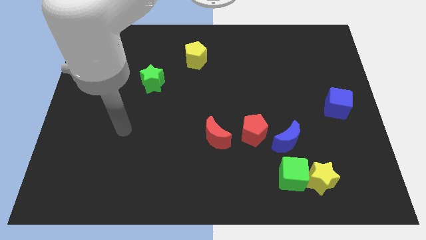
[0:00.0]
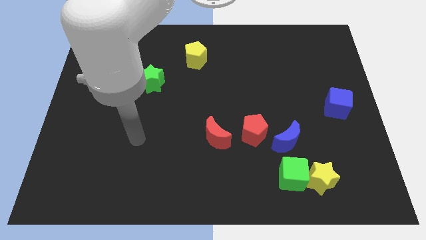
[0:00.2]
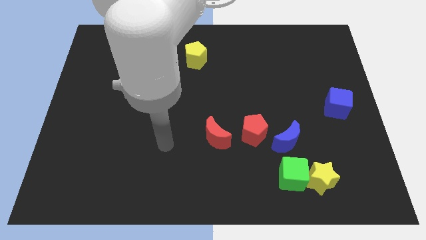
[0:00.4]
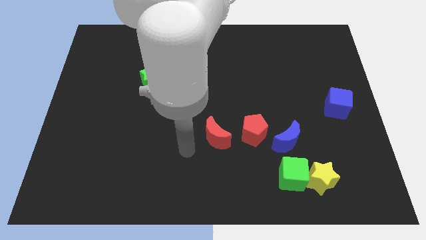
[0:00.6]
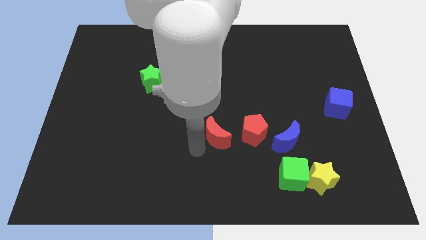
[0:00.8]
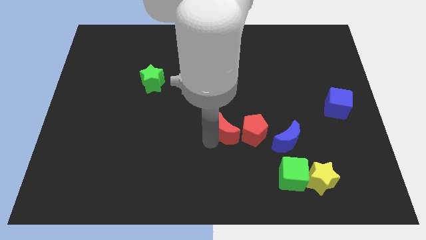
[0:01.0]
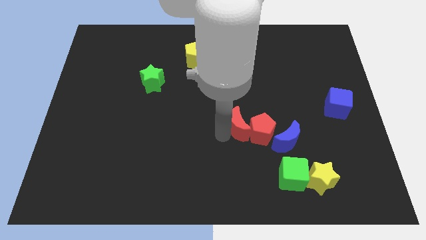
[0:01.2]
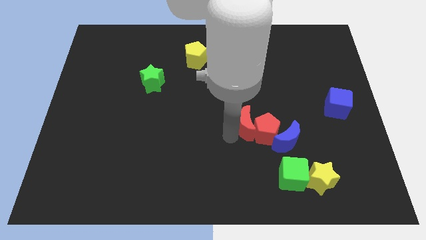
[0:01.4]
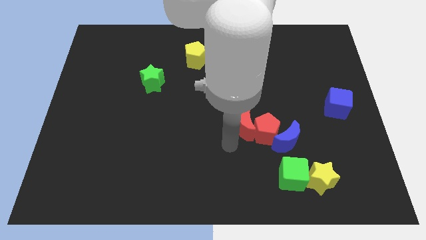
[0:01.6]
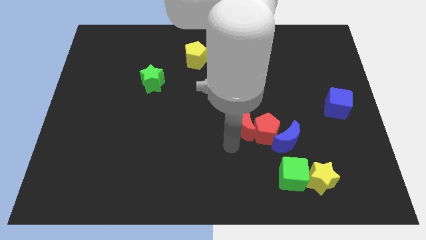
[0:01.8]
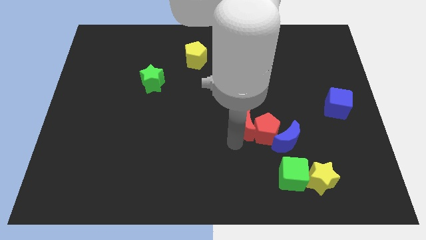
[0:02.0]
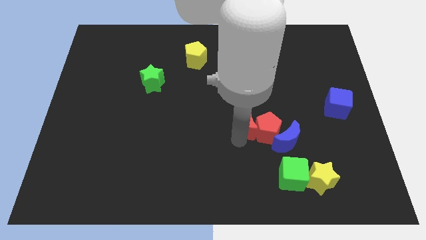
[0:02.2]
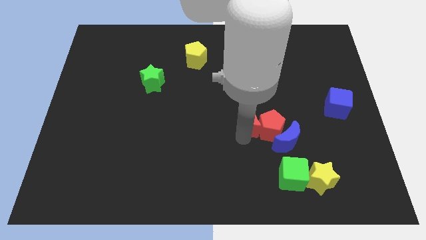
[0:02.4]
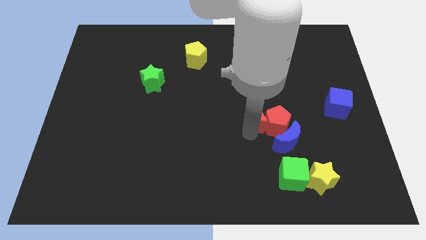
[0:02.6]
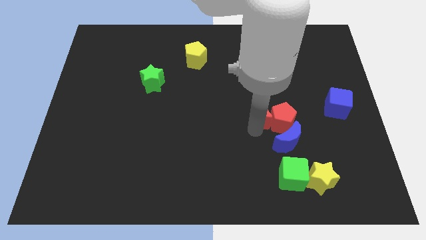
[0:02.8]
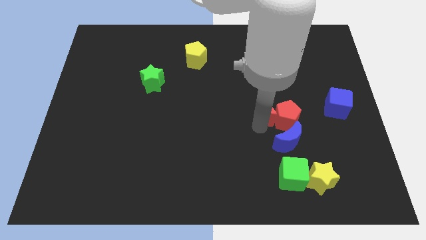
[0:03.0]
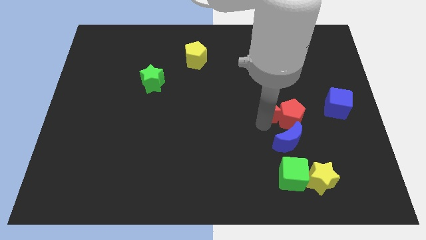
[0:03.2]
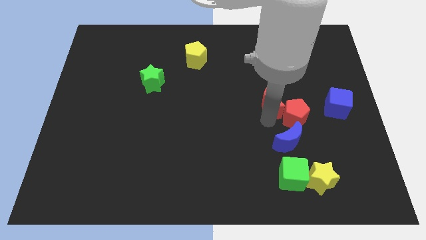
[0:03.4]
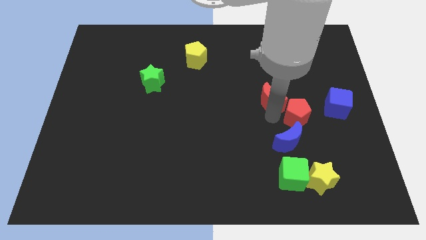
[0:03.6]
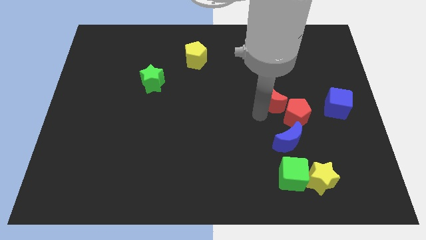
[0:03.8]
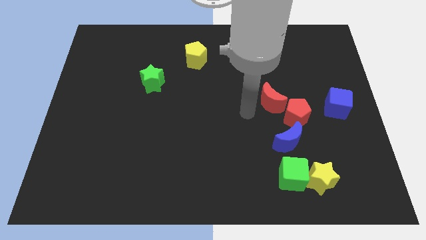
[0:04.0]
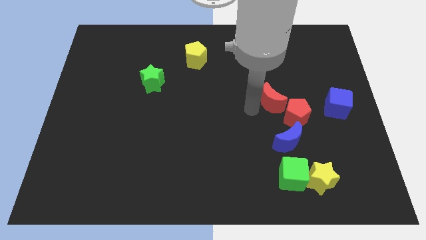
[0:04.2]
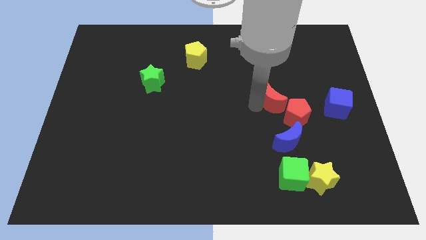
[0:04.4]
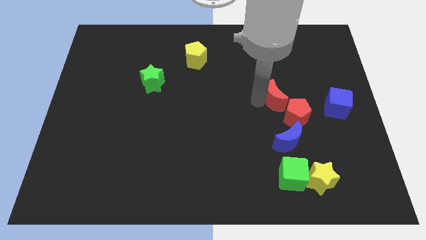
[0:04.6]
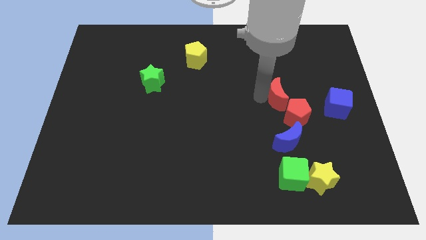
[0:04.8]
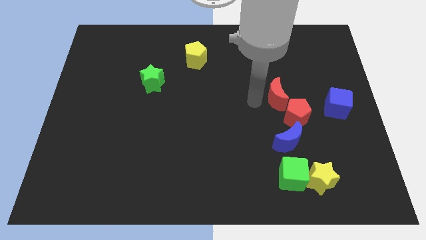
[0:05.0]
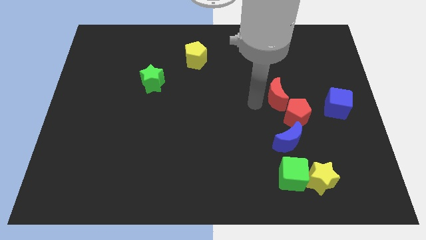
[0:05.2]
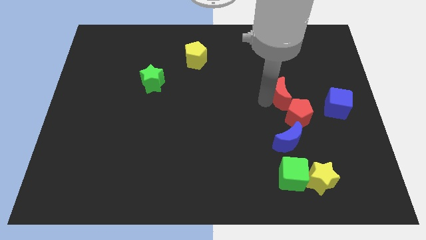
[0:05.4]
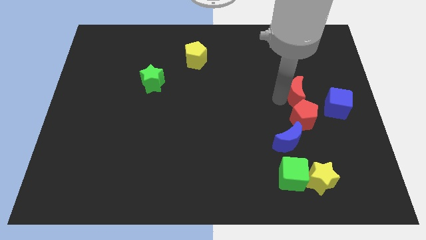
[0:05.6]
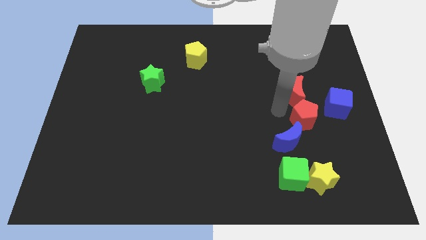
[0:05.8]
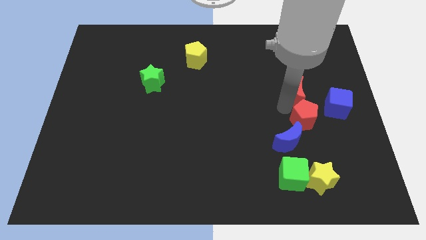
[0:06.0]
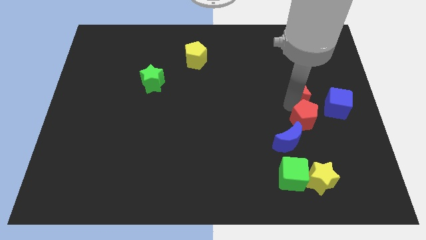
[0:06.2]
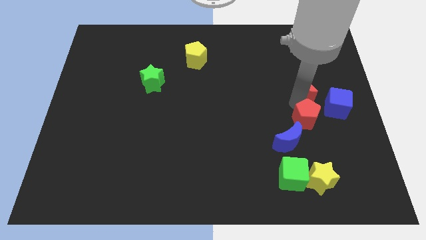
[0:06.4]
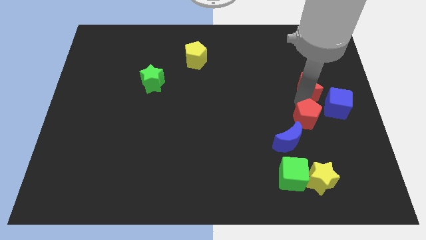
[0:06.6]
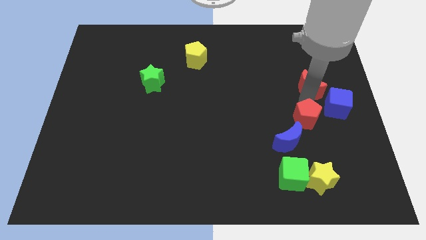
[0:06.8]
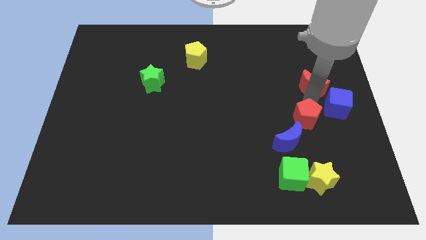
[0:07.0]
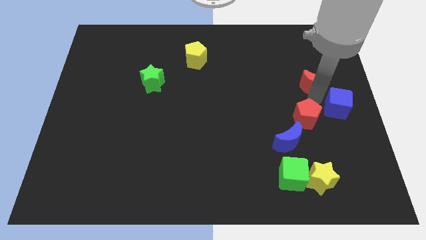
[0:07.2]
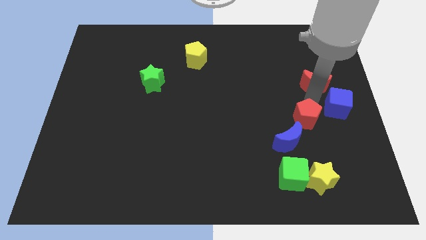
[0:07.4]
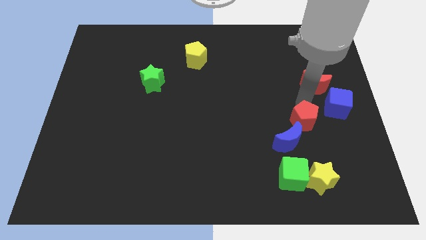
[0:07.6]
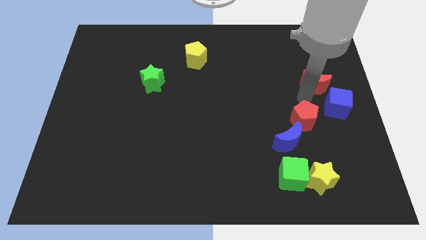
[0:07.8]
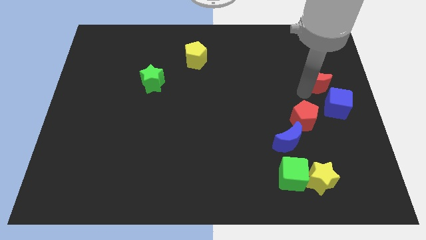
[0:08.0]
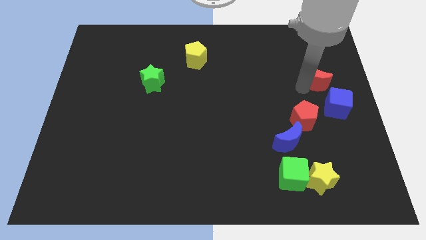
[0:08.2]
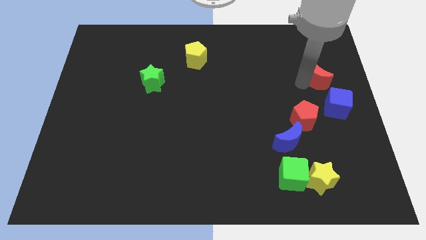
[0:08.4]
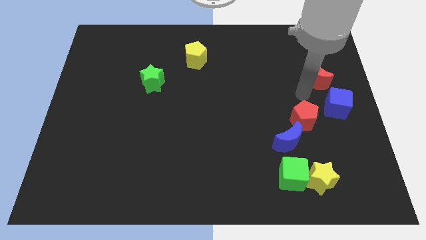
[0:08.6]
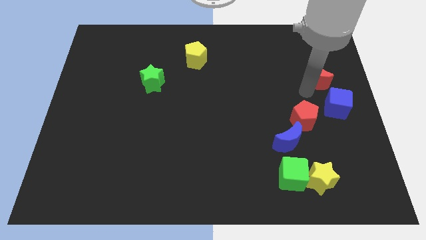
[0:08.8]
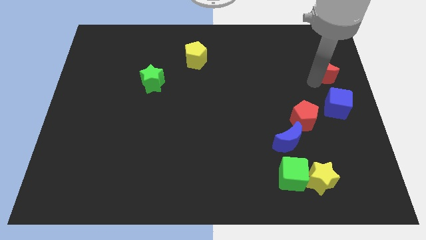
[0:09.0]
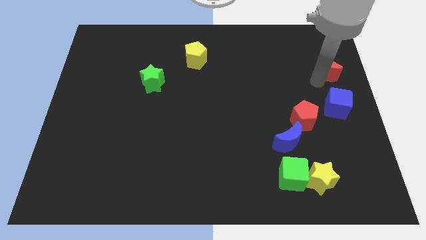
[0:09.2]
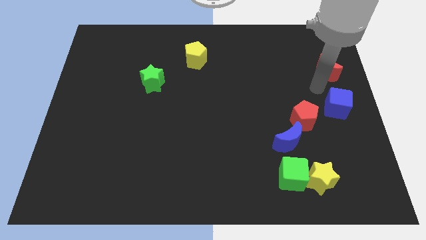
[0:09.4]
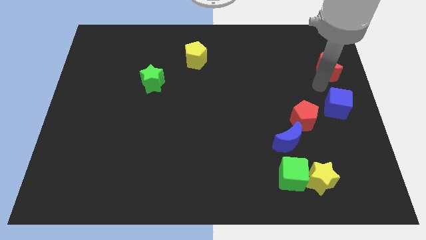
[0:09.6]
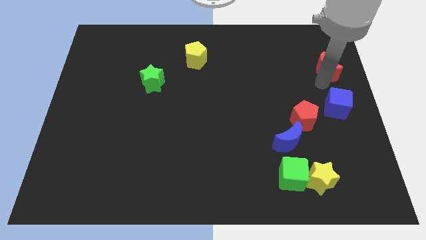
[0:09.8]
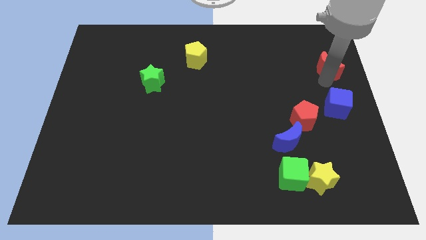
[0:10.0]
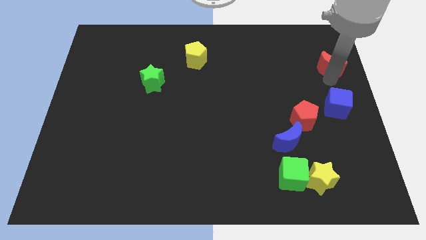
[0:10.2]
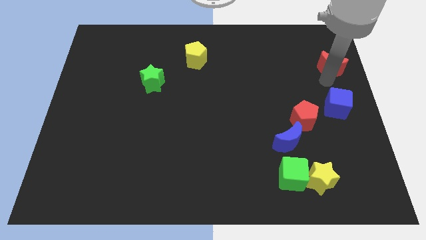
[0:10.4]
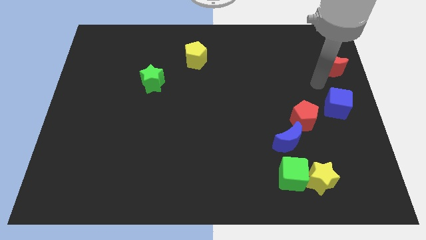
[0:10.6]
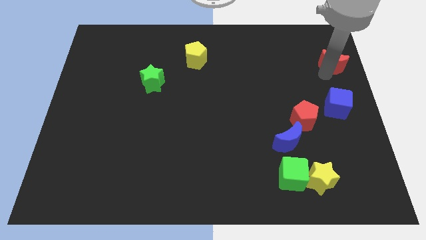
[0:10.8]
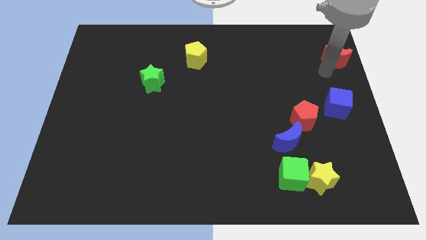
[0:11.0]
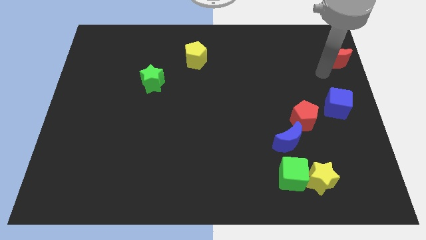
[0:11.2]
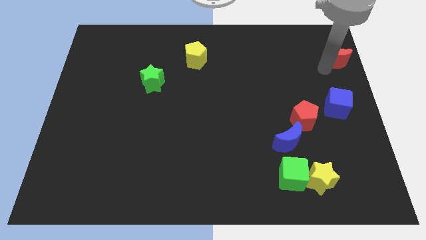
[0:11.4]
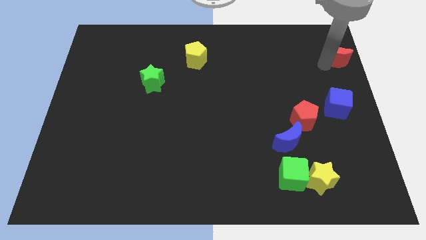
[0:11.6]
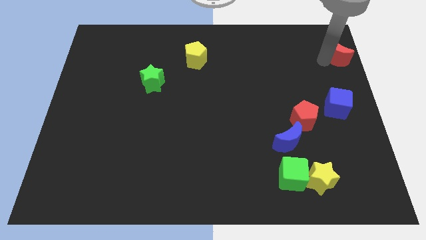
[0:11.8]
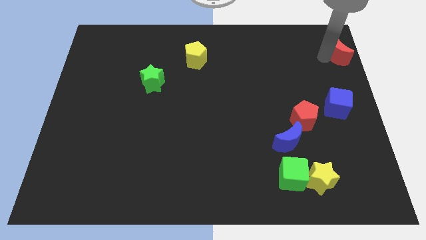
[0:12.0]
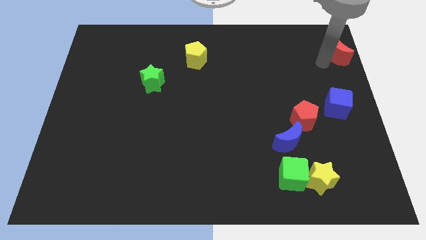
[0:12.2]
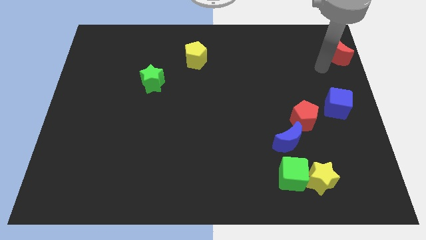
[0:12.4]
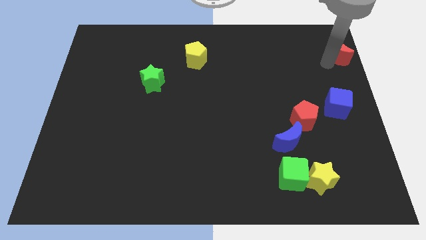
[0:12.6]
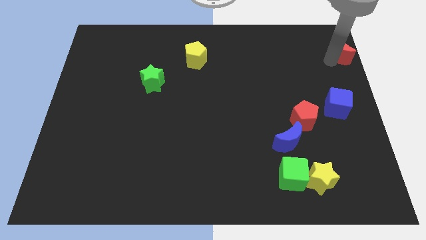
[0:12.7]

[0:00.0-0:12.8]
push the red moon to the top right corner

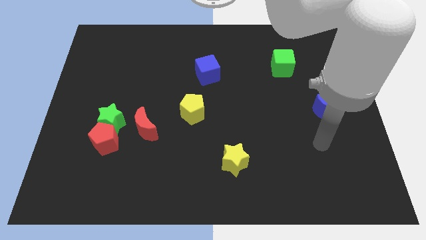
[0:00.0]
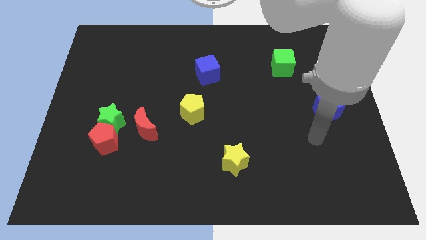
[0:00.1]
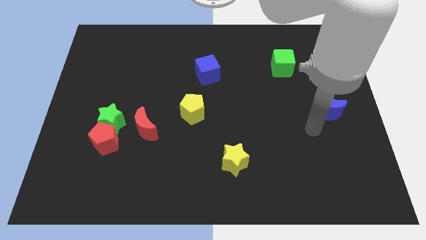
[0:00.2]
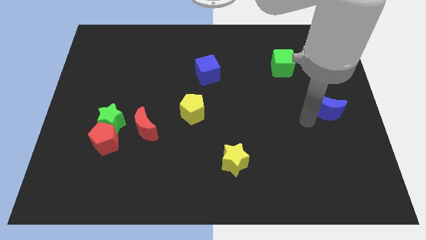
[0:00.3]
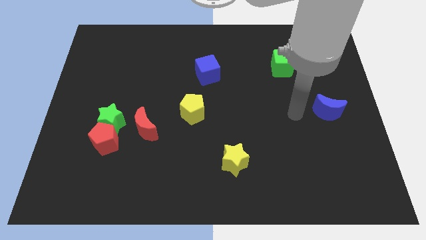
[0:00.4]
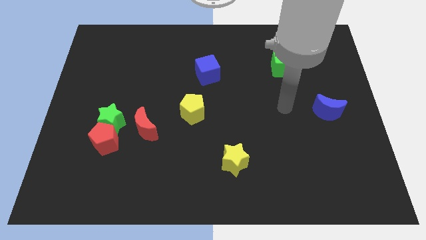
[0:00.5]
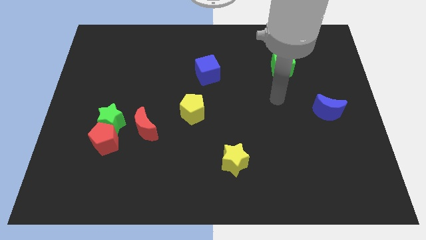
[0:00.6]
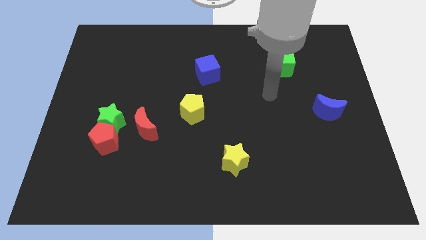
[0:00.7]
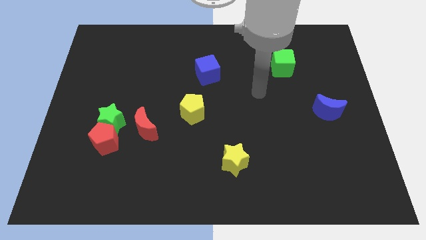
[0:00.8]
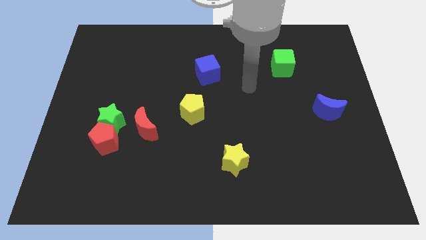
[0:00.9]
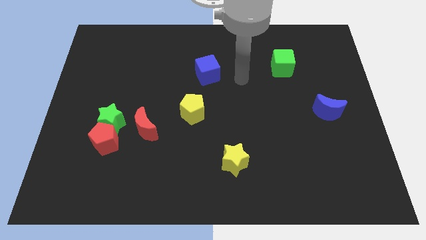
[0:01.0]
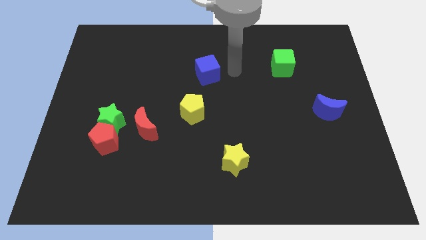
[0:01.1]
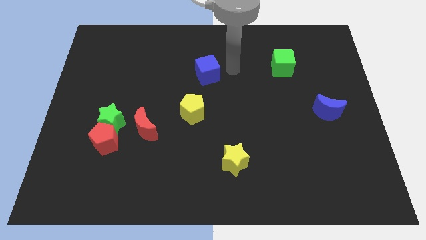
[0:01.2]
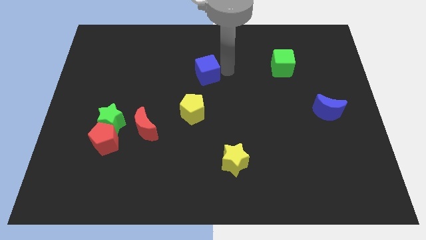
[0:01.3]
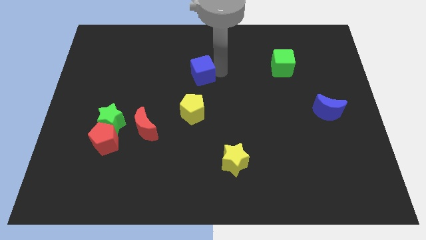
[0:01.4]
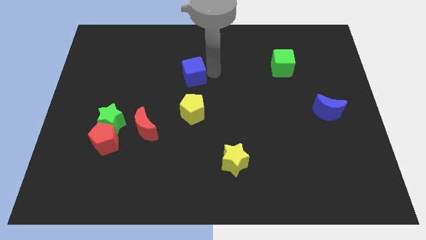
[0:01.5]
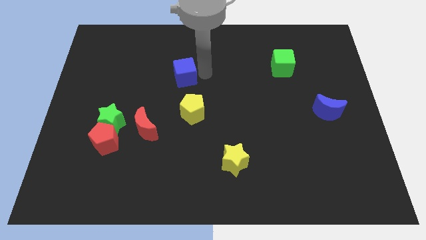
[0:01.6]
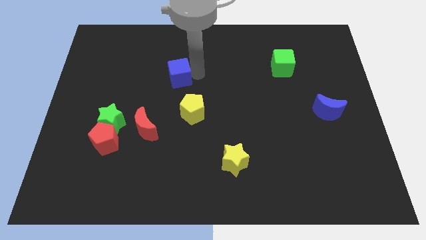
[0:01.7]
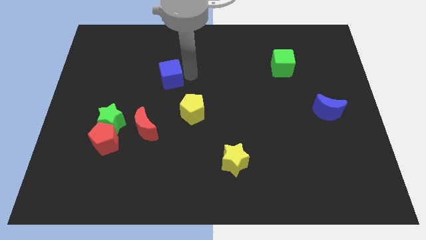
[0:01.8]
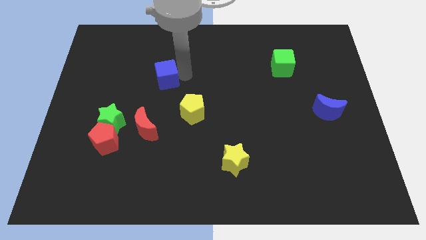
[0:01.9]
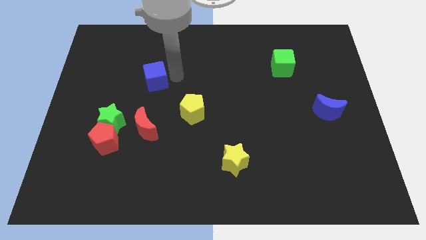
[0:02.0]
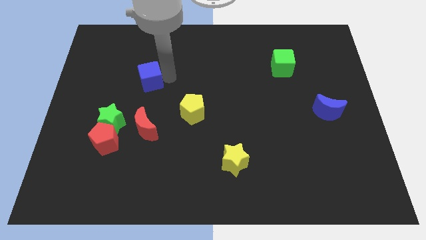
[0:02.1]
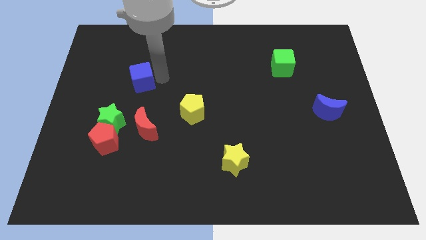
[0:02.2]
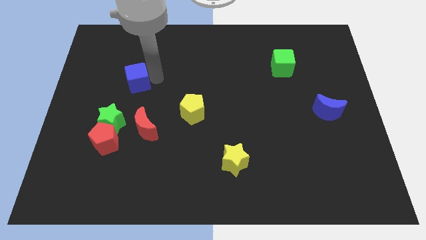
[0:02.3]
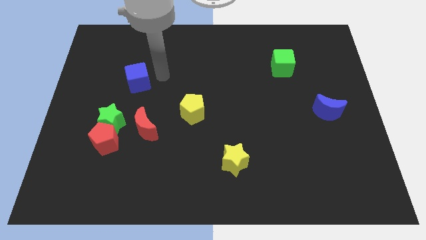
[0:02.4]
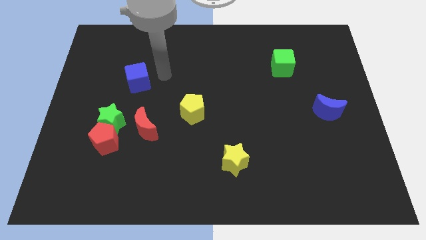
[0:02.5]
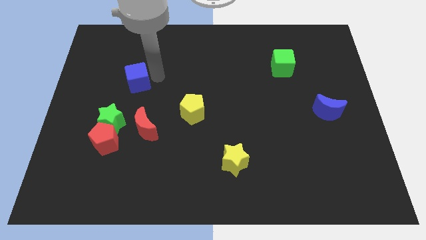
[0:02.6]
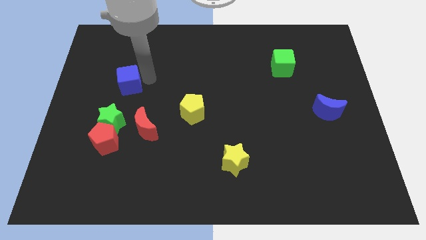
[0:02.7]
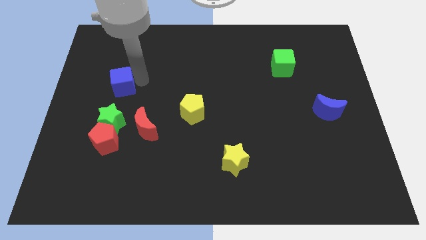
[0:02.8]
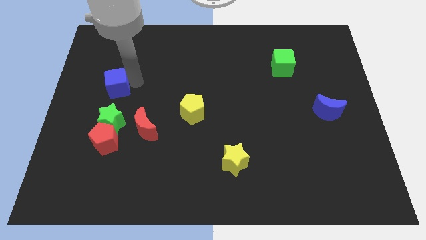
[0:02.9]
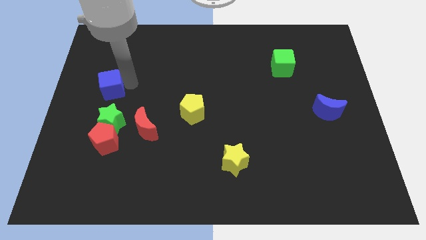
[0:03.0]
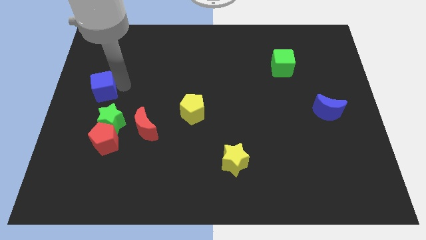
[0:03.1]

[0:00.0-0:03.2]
slide the blue cube to the left side
